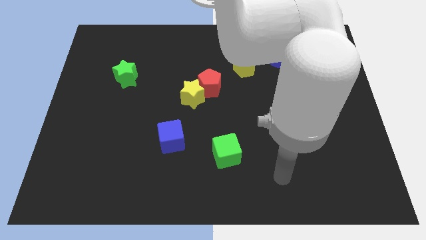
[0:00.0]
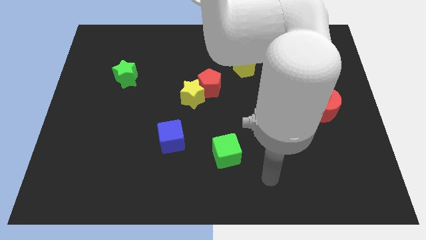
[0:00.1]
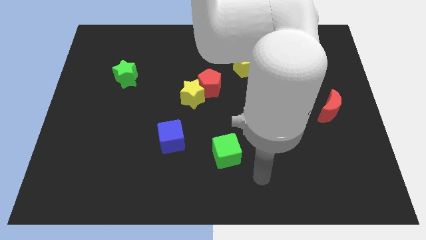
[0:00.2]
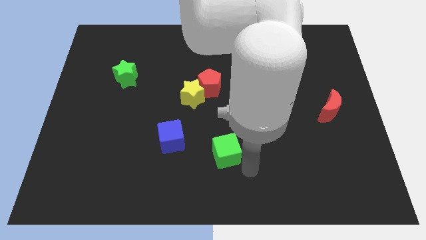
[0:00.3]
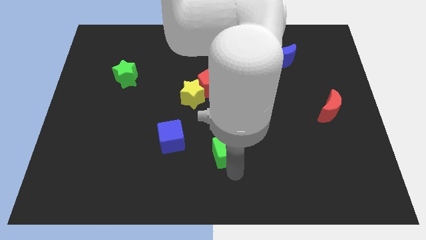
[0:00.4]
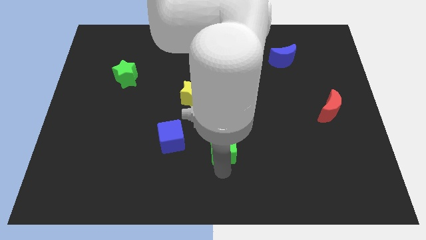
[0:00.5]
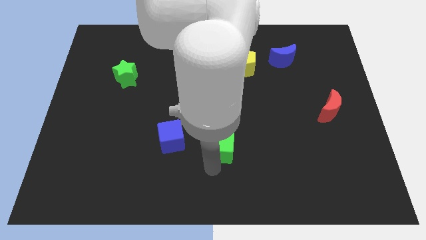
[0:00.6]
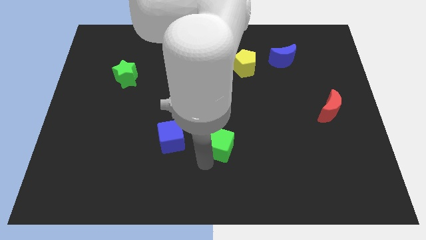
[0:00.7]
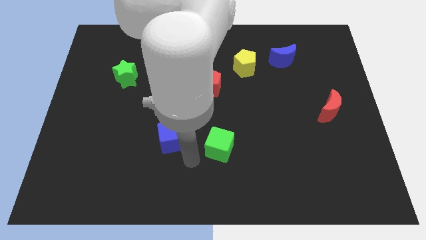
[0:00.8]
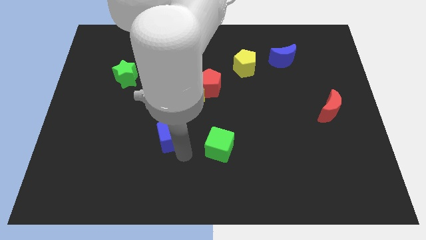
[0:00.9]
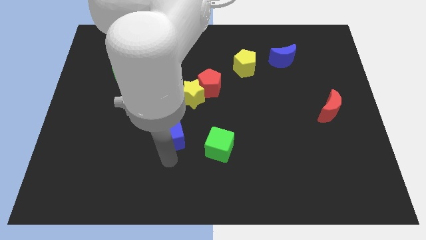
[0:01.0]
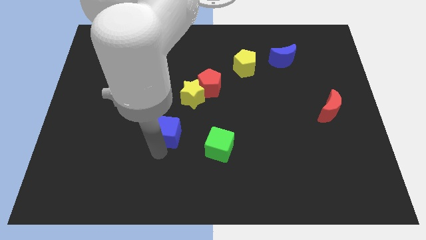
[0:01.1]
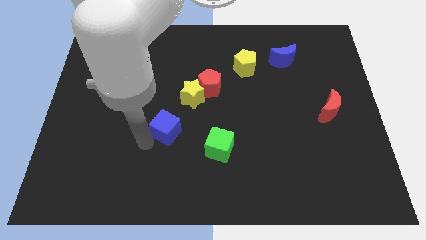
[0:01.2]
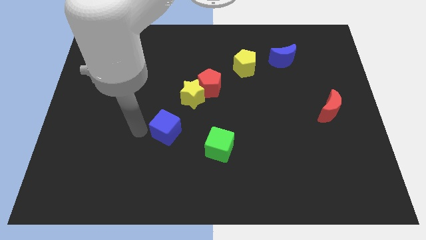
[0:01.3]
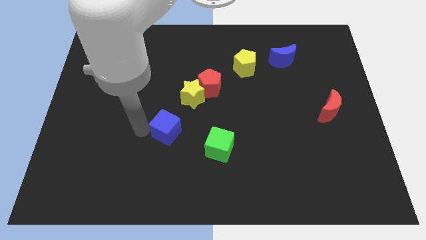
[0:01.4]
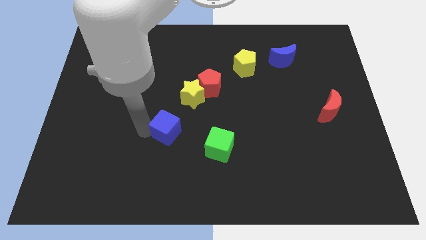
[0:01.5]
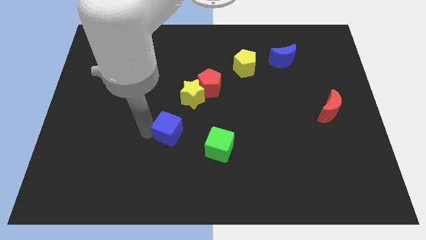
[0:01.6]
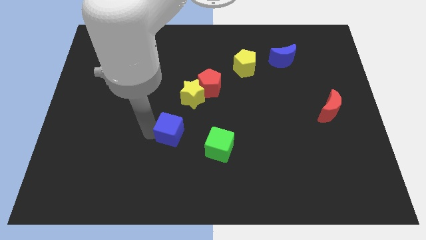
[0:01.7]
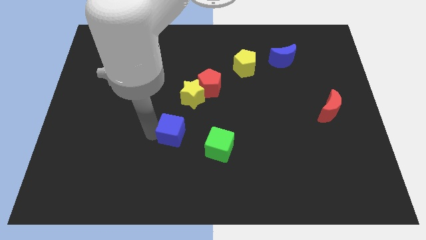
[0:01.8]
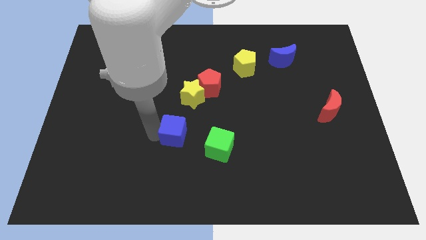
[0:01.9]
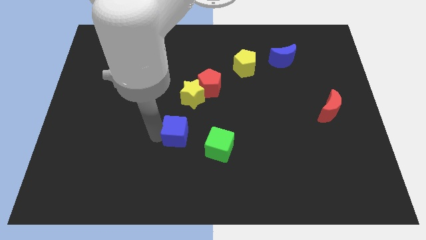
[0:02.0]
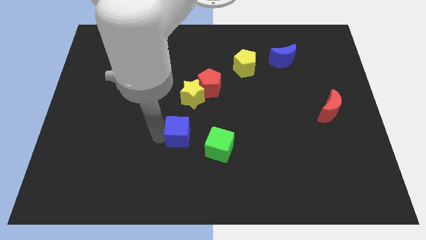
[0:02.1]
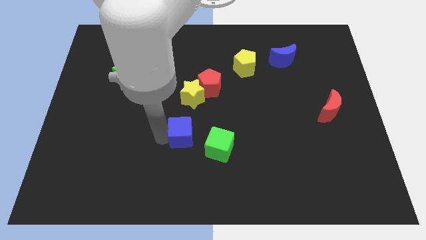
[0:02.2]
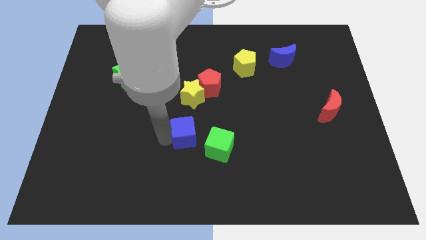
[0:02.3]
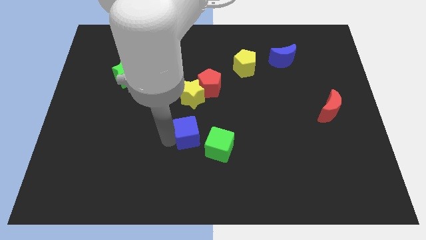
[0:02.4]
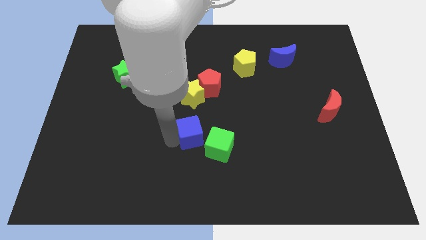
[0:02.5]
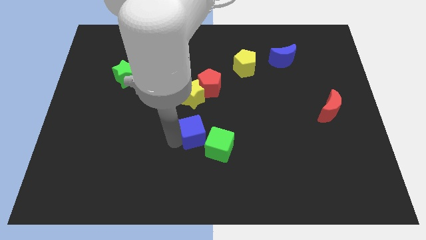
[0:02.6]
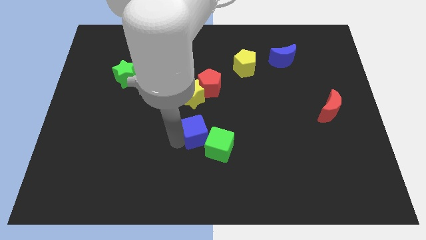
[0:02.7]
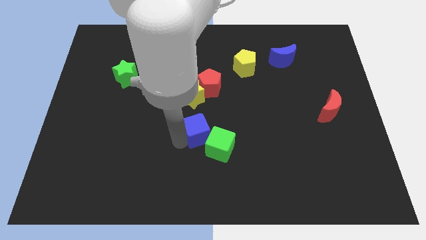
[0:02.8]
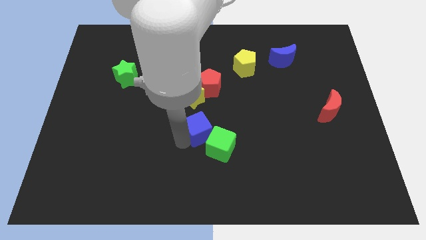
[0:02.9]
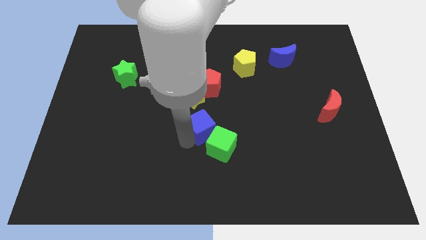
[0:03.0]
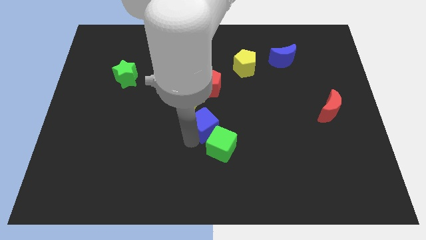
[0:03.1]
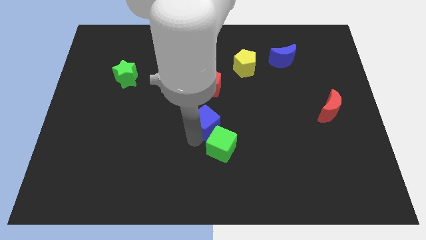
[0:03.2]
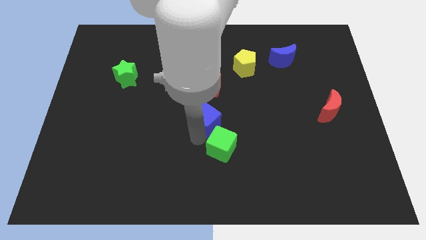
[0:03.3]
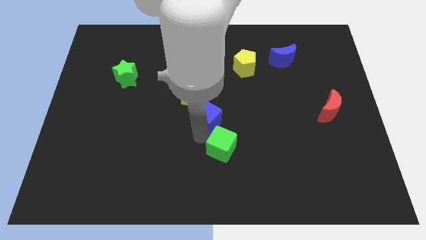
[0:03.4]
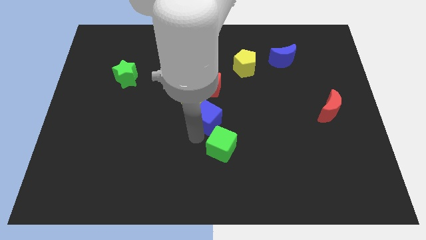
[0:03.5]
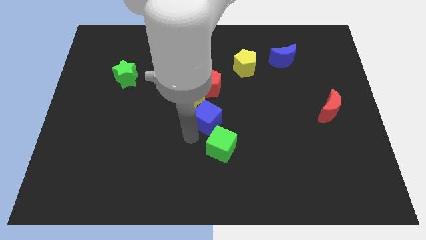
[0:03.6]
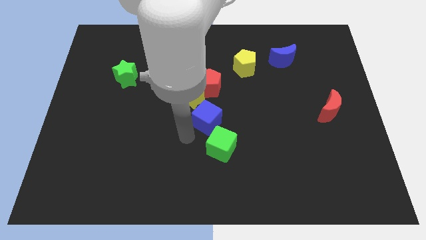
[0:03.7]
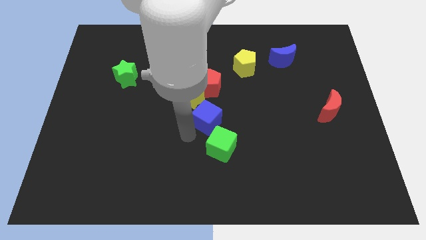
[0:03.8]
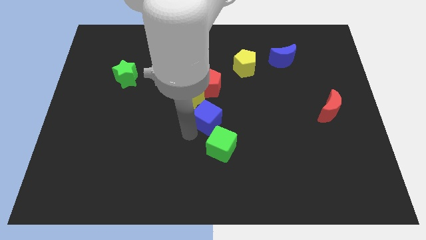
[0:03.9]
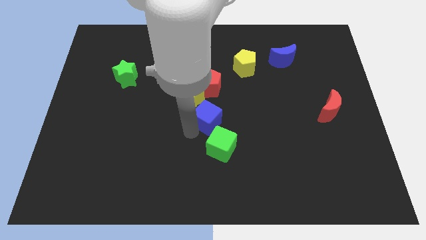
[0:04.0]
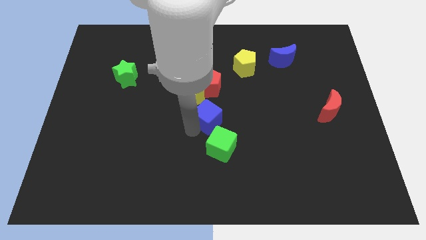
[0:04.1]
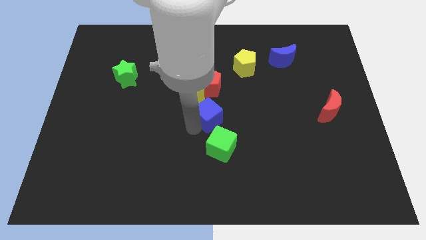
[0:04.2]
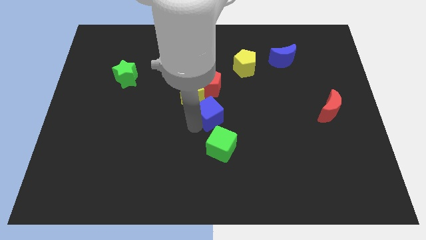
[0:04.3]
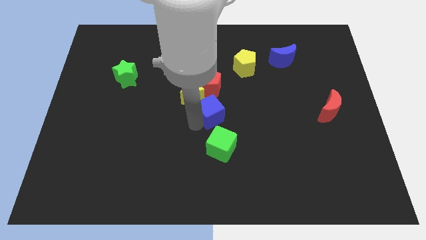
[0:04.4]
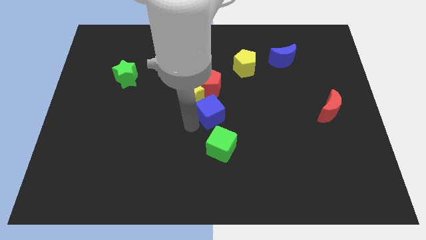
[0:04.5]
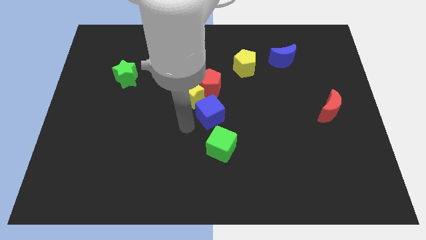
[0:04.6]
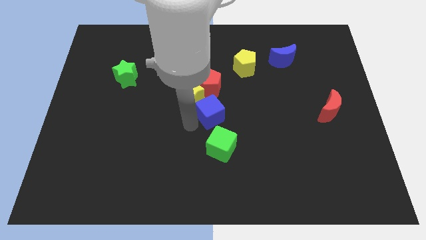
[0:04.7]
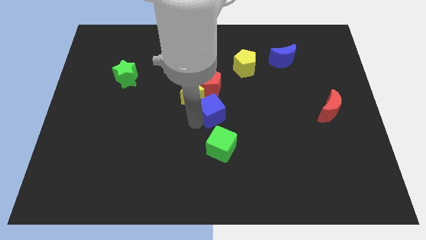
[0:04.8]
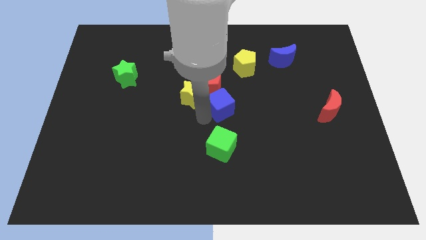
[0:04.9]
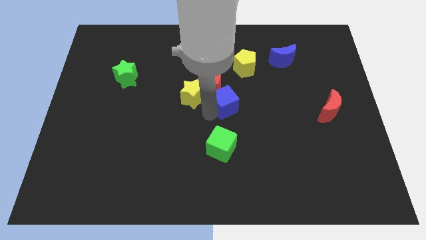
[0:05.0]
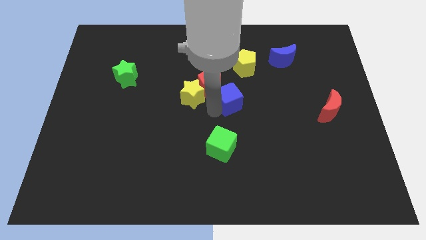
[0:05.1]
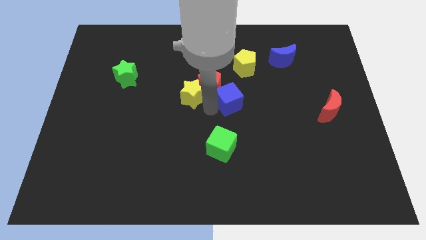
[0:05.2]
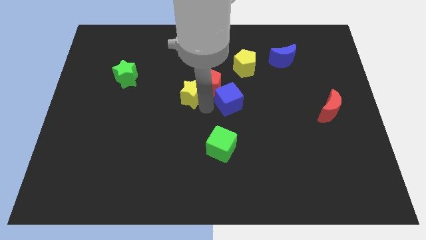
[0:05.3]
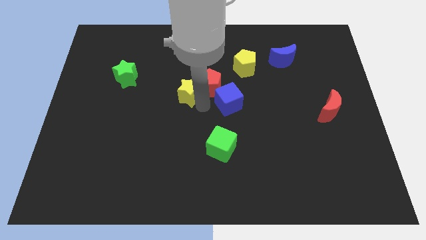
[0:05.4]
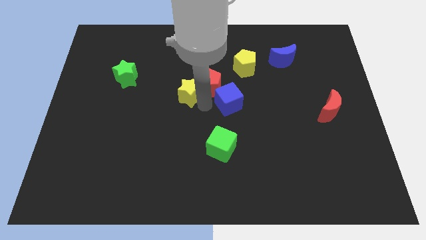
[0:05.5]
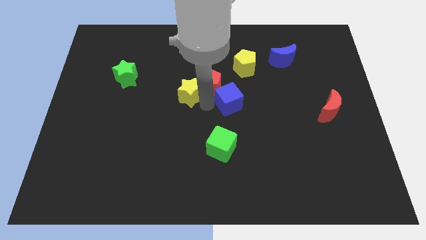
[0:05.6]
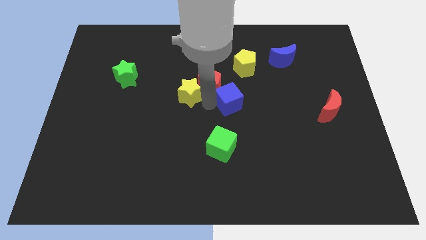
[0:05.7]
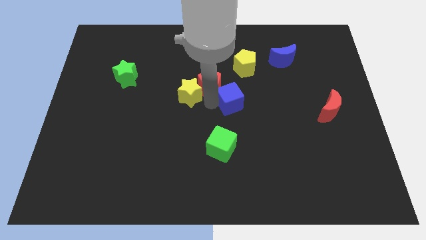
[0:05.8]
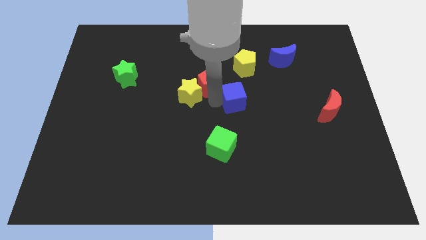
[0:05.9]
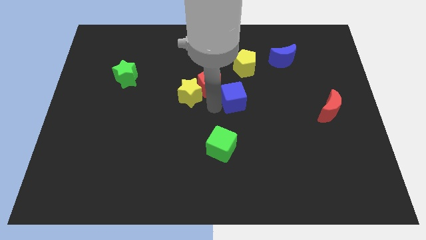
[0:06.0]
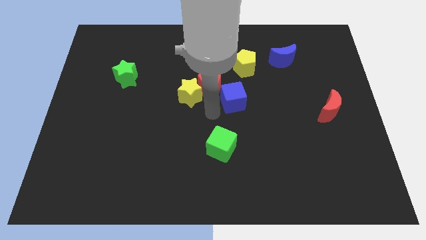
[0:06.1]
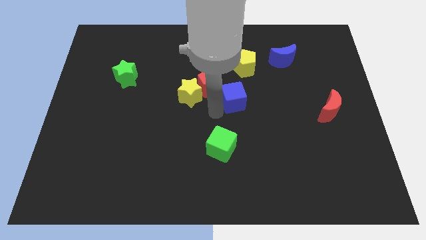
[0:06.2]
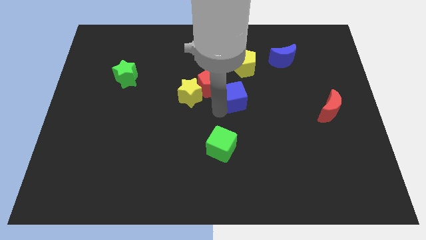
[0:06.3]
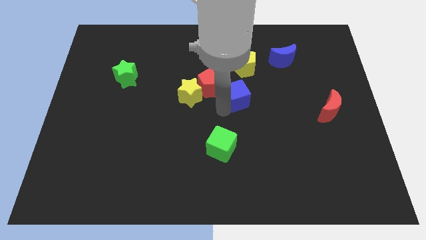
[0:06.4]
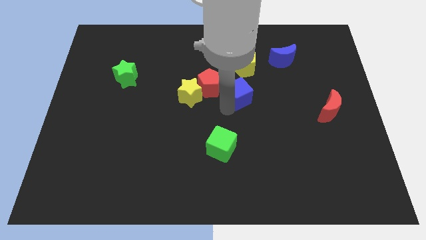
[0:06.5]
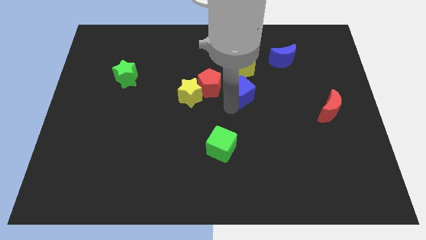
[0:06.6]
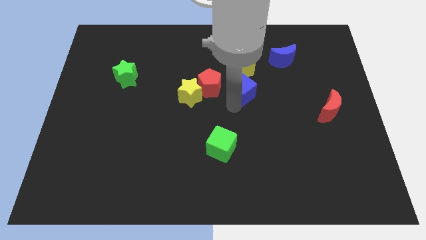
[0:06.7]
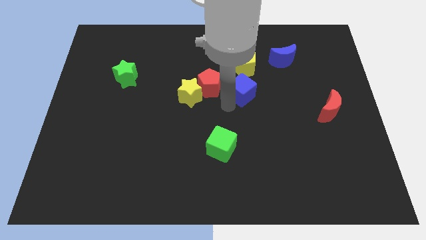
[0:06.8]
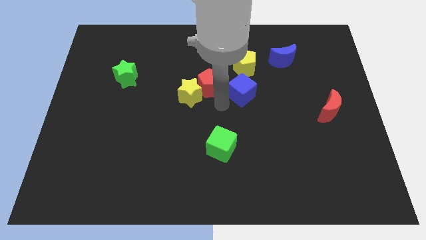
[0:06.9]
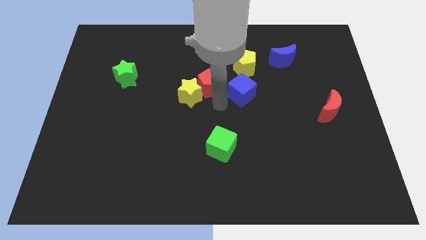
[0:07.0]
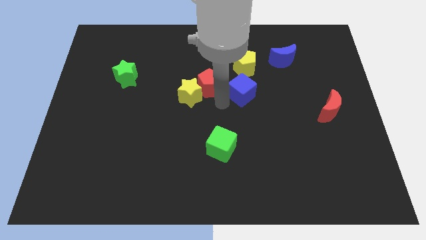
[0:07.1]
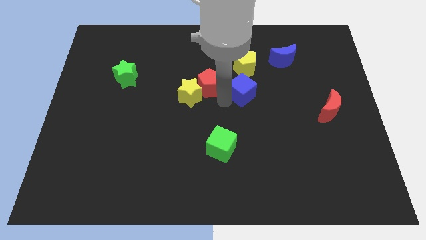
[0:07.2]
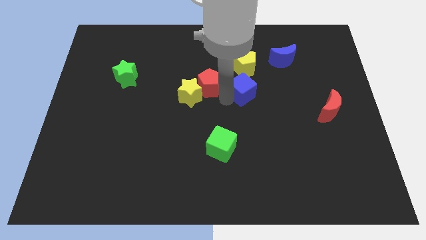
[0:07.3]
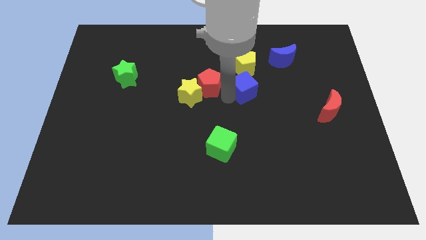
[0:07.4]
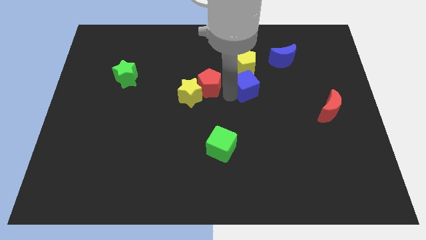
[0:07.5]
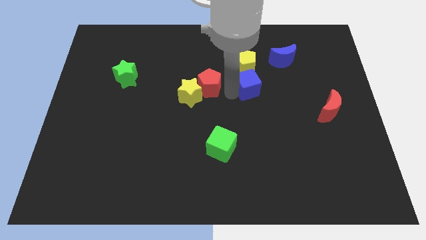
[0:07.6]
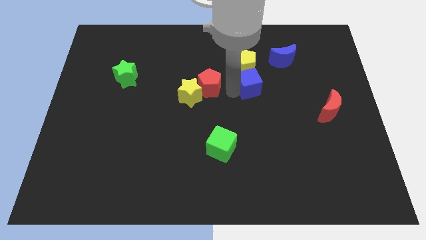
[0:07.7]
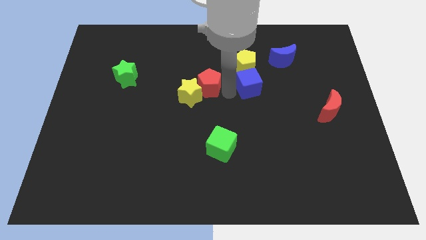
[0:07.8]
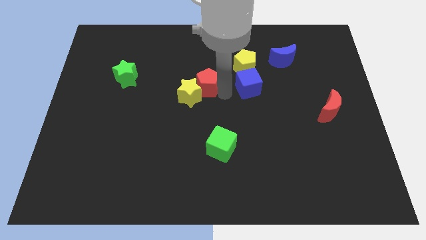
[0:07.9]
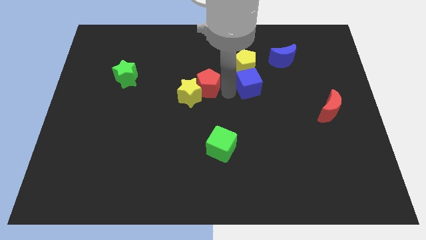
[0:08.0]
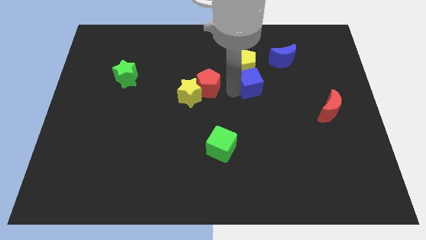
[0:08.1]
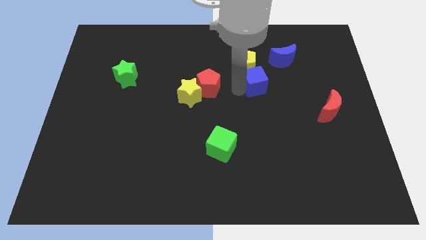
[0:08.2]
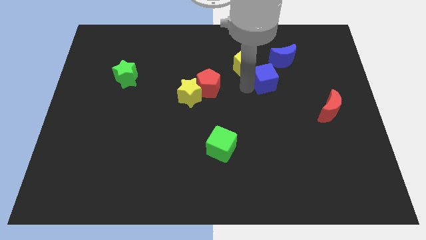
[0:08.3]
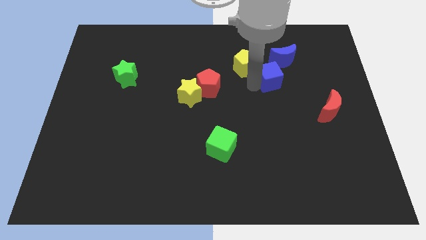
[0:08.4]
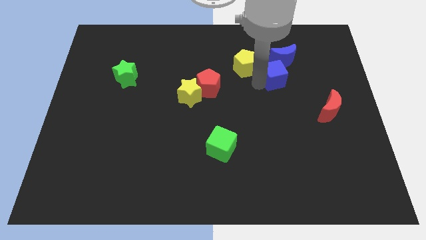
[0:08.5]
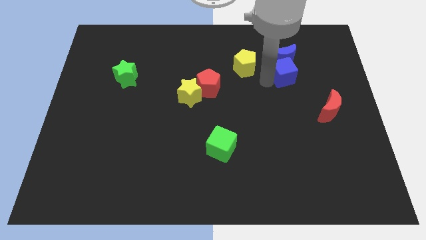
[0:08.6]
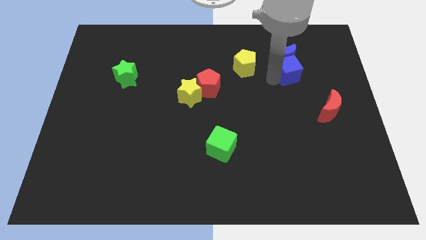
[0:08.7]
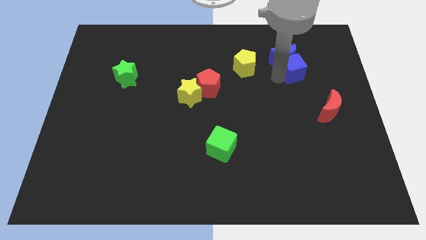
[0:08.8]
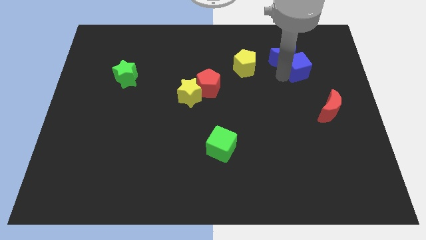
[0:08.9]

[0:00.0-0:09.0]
move the blue cube to the right side of the blue moon
